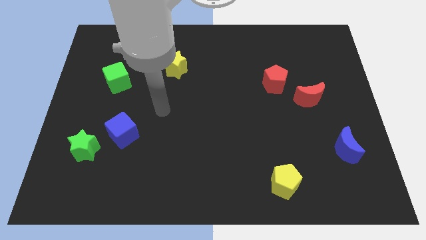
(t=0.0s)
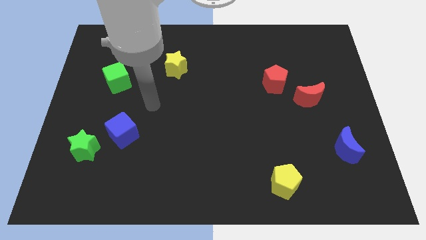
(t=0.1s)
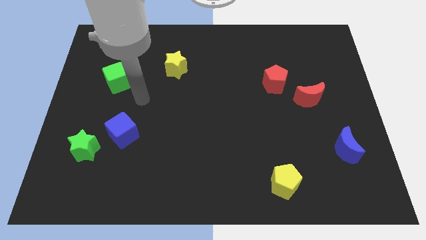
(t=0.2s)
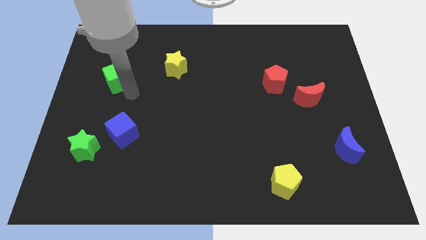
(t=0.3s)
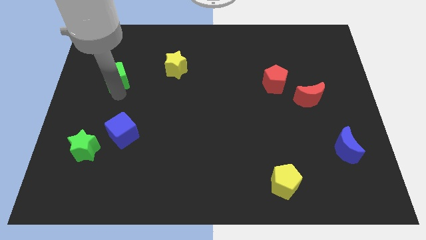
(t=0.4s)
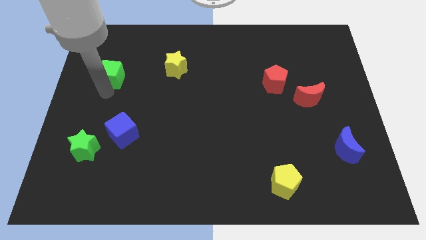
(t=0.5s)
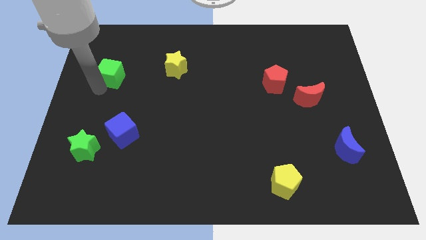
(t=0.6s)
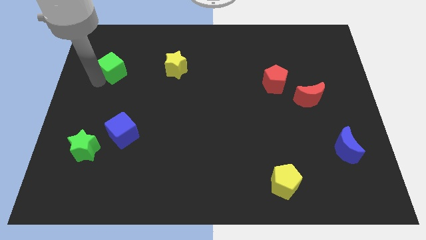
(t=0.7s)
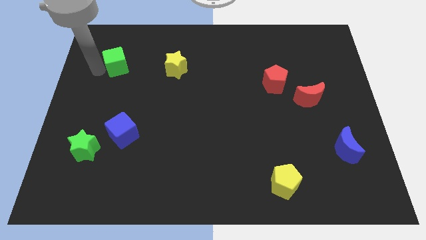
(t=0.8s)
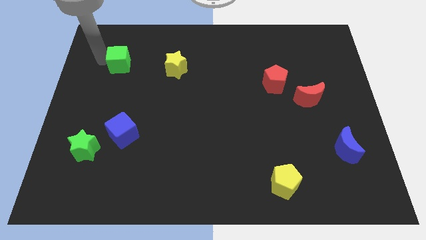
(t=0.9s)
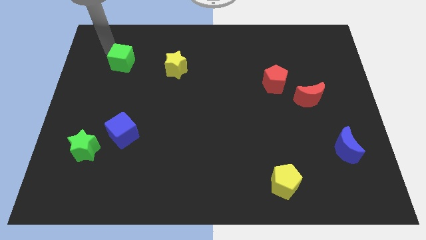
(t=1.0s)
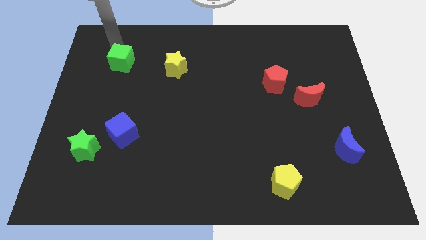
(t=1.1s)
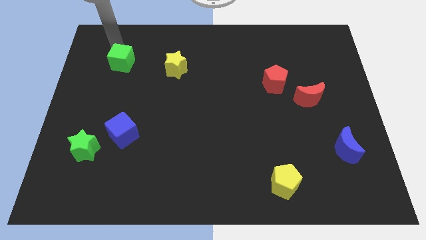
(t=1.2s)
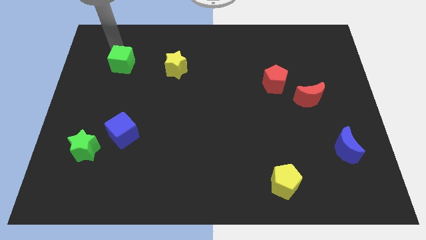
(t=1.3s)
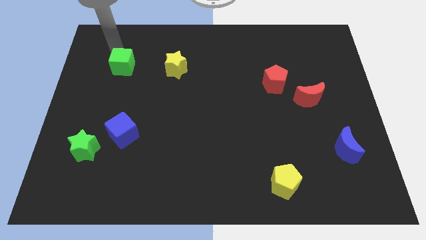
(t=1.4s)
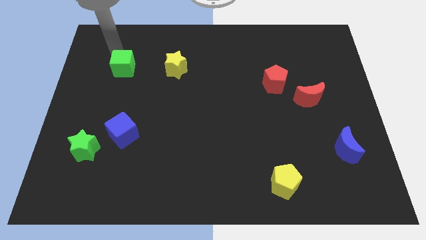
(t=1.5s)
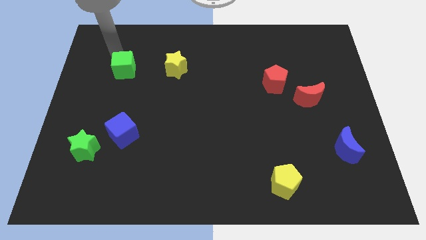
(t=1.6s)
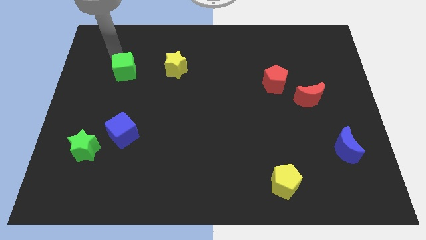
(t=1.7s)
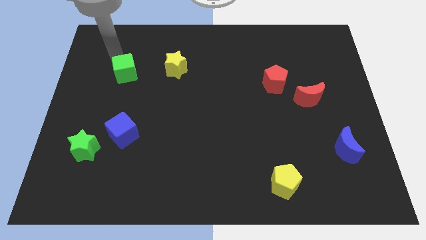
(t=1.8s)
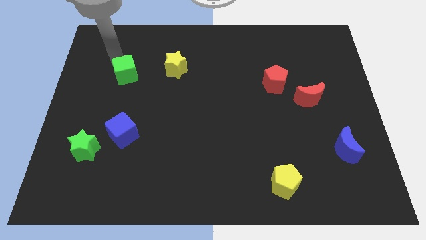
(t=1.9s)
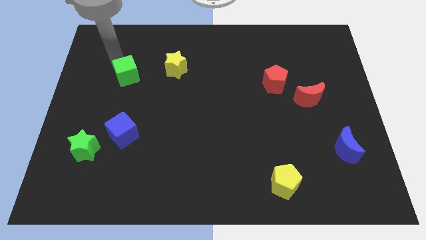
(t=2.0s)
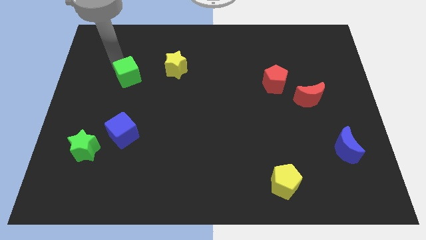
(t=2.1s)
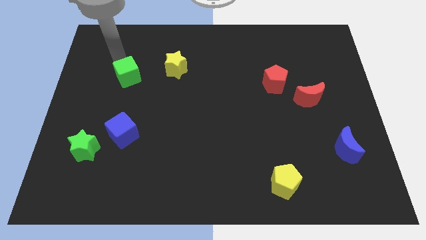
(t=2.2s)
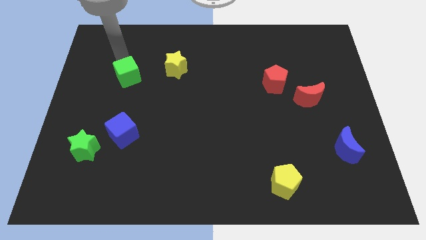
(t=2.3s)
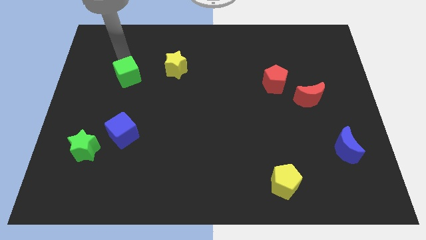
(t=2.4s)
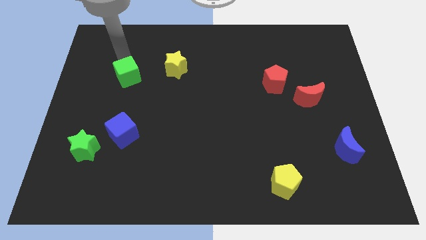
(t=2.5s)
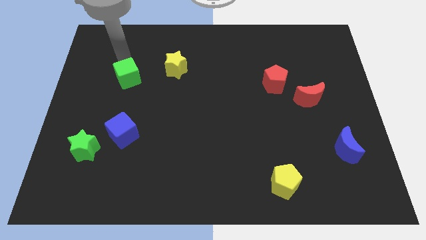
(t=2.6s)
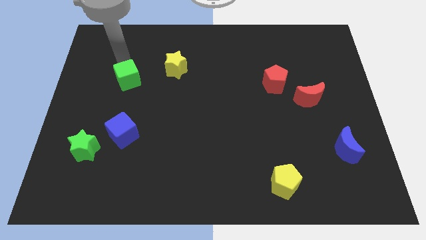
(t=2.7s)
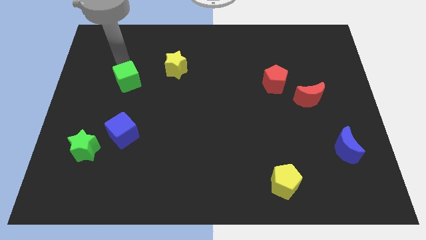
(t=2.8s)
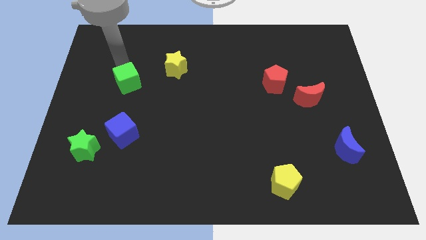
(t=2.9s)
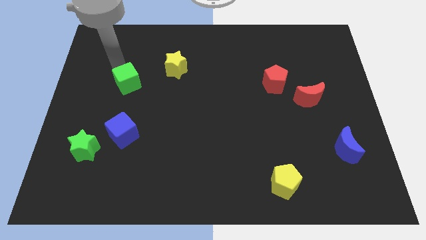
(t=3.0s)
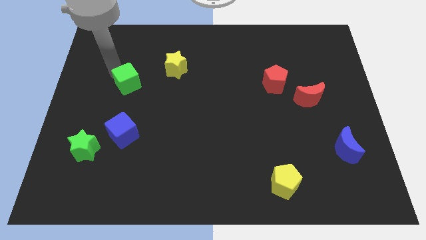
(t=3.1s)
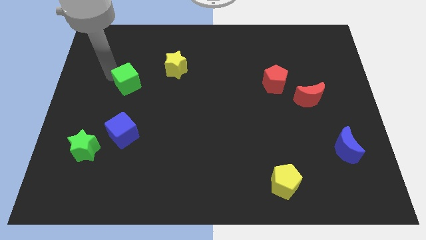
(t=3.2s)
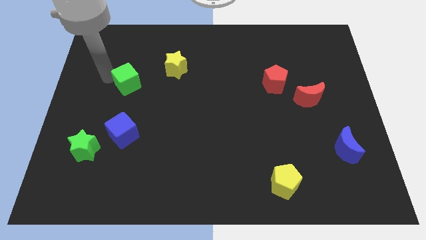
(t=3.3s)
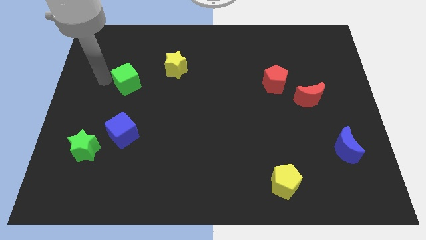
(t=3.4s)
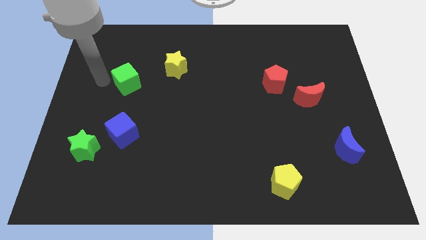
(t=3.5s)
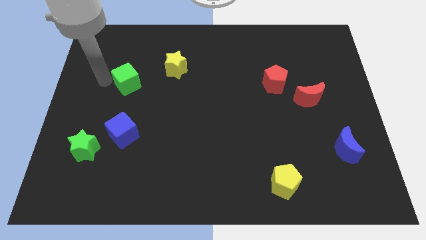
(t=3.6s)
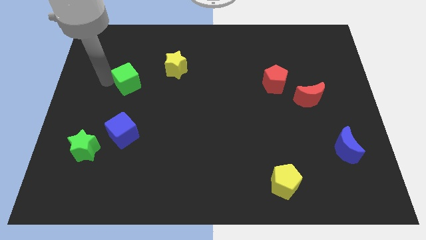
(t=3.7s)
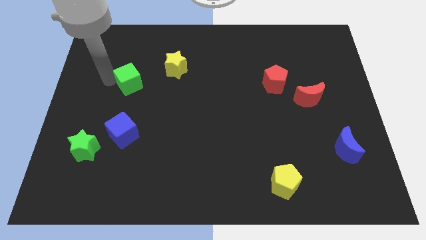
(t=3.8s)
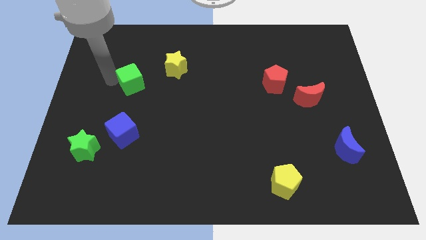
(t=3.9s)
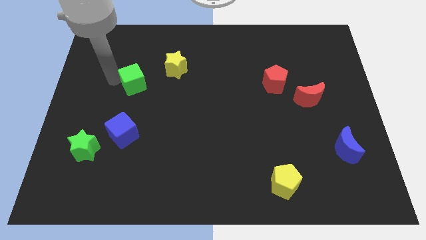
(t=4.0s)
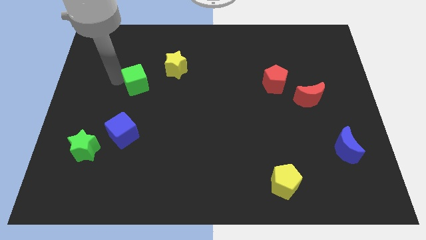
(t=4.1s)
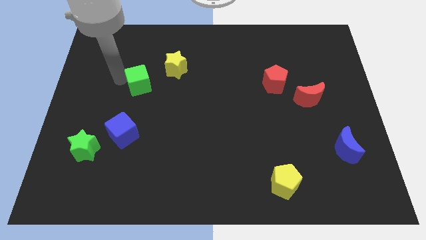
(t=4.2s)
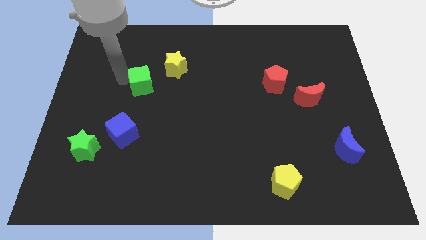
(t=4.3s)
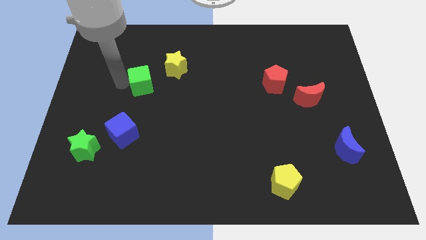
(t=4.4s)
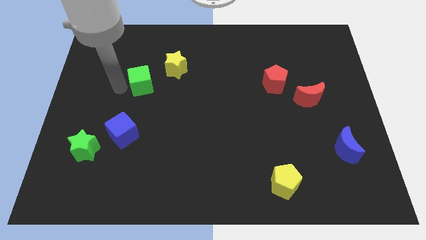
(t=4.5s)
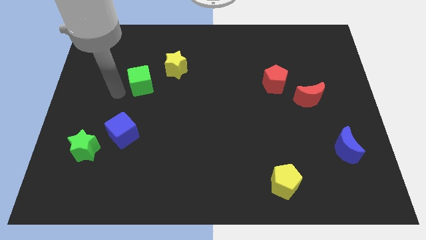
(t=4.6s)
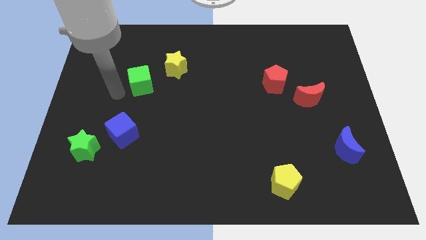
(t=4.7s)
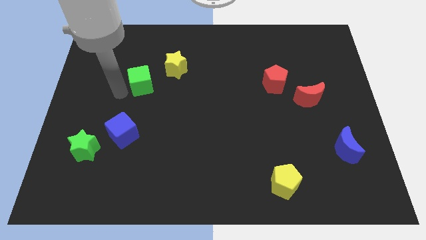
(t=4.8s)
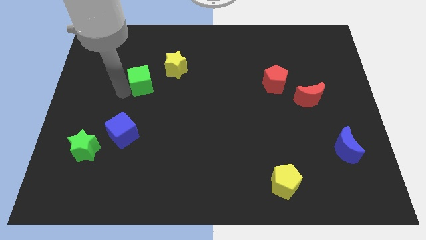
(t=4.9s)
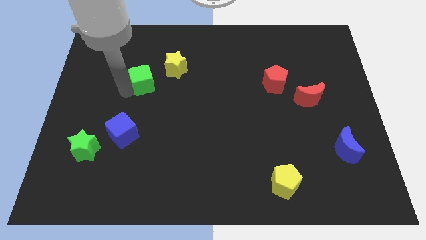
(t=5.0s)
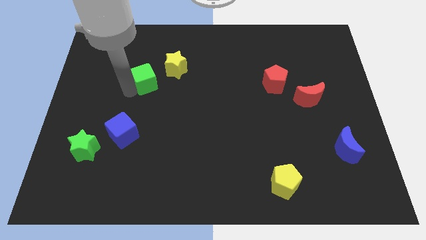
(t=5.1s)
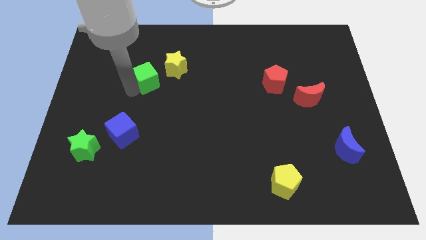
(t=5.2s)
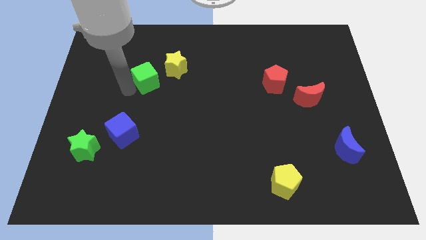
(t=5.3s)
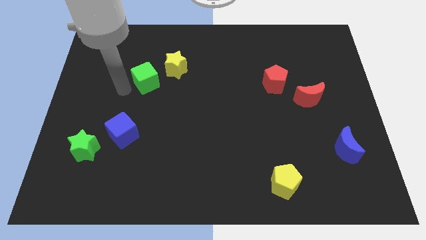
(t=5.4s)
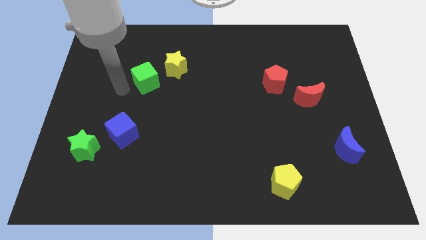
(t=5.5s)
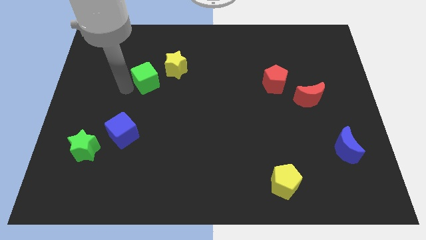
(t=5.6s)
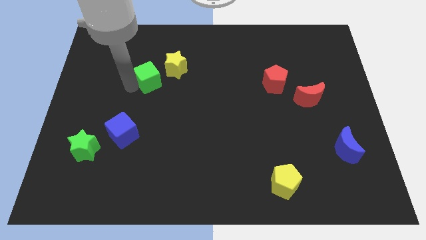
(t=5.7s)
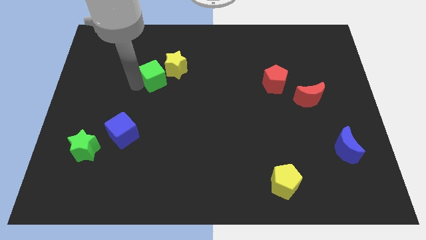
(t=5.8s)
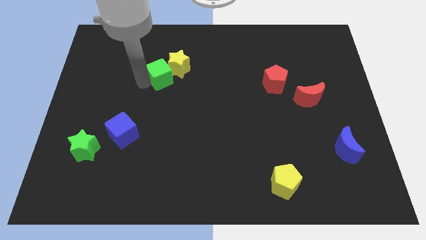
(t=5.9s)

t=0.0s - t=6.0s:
slide the green cube to the yellow star

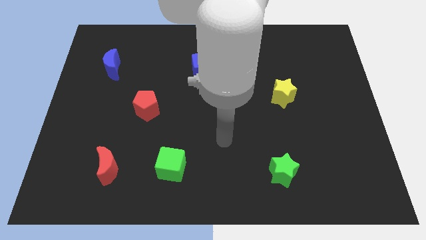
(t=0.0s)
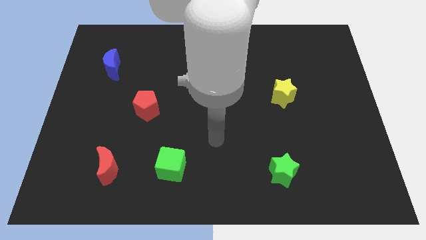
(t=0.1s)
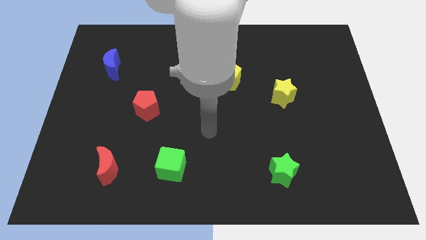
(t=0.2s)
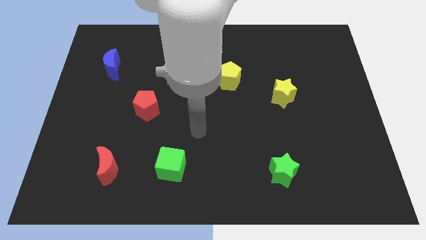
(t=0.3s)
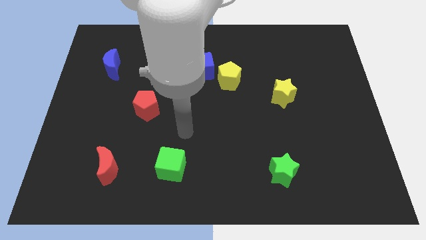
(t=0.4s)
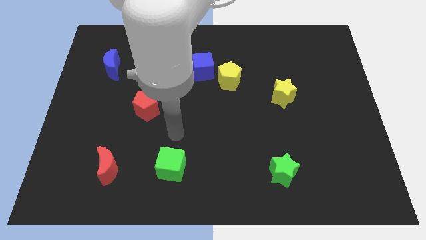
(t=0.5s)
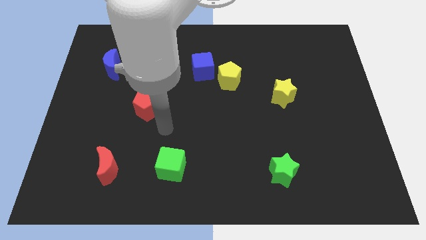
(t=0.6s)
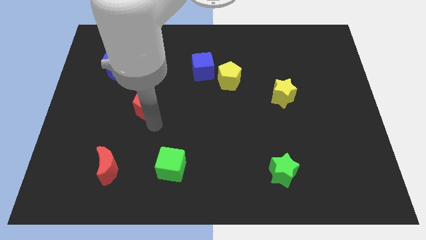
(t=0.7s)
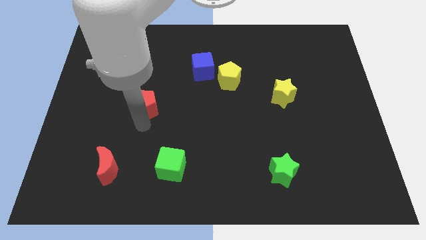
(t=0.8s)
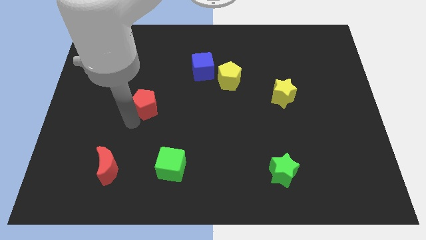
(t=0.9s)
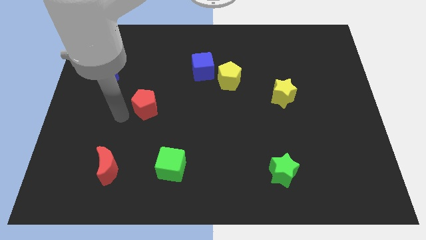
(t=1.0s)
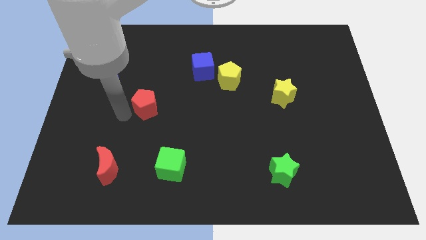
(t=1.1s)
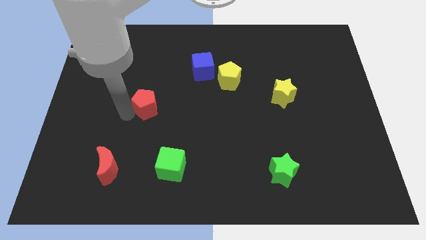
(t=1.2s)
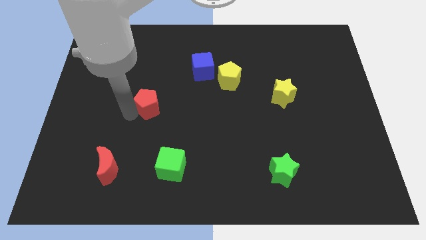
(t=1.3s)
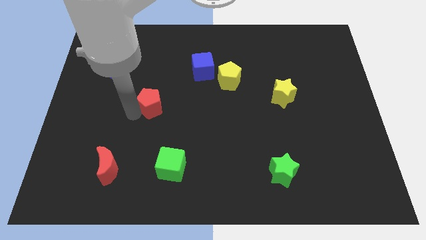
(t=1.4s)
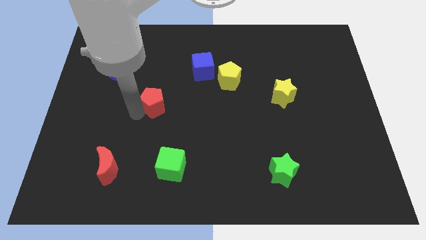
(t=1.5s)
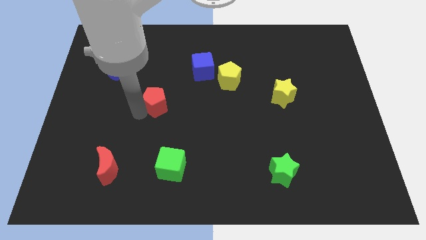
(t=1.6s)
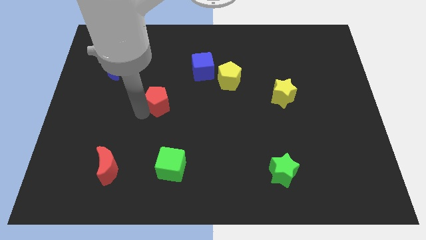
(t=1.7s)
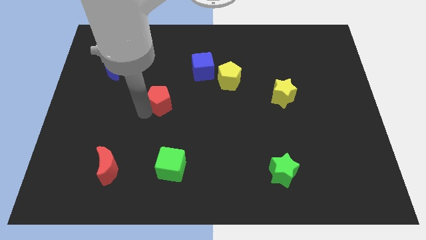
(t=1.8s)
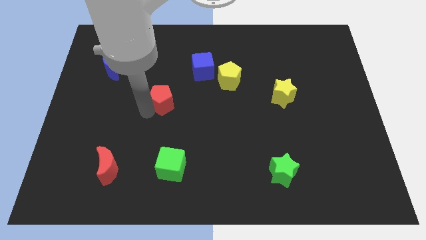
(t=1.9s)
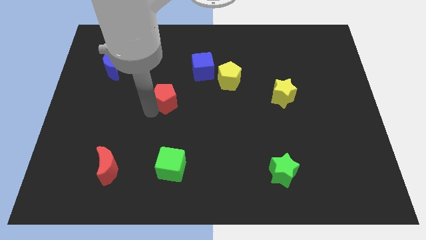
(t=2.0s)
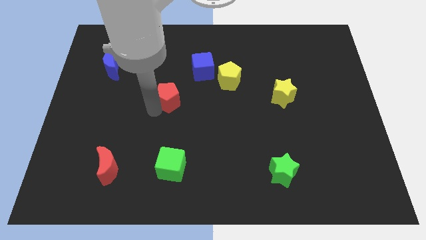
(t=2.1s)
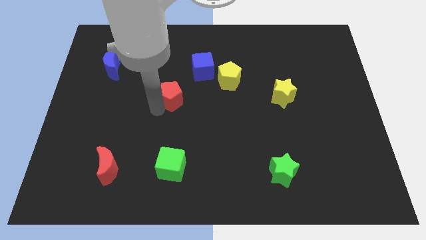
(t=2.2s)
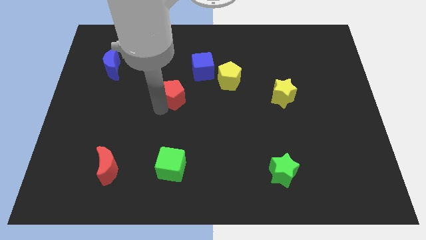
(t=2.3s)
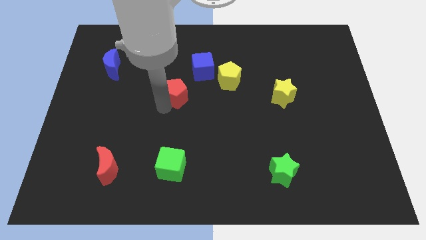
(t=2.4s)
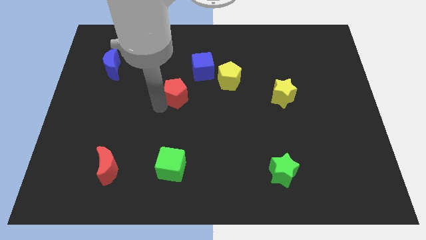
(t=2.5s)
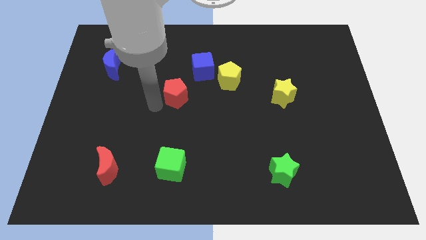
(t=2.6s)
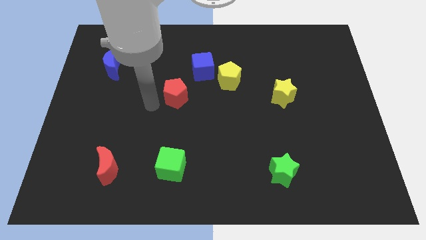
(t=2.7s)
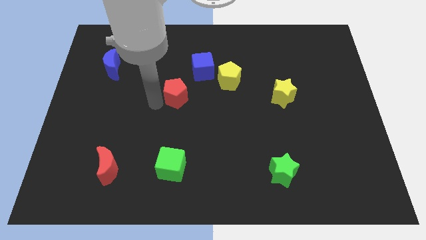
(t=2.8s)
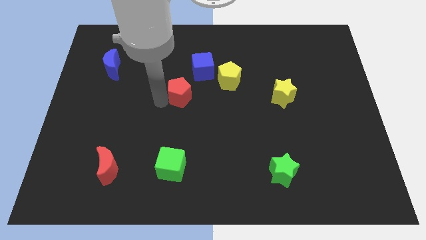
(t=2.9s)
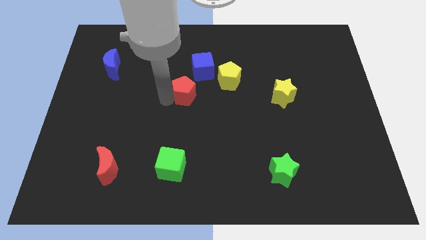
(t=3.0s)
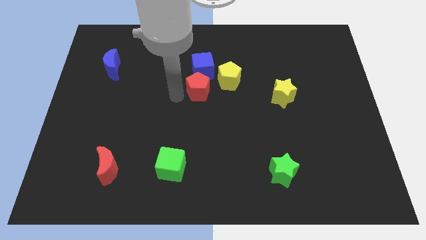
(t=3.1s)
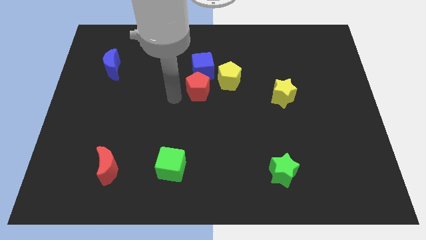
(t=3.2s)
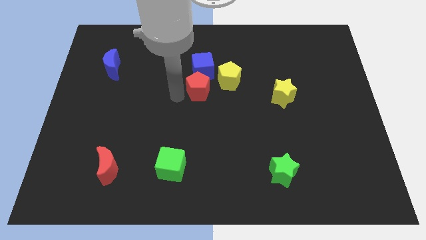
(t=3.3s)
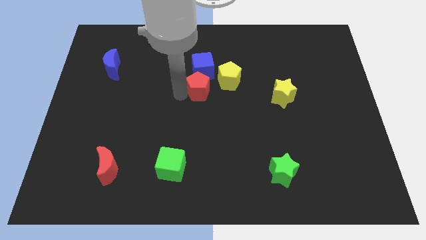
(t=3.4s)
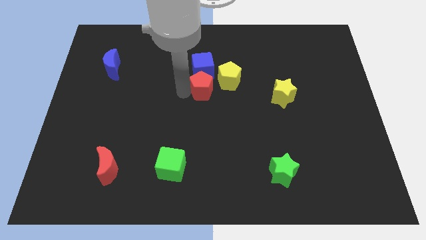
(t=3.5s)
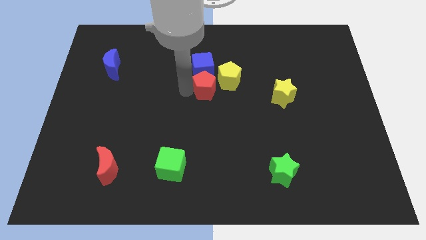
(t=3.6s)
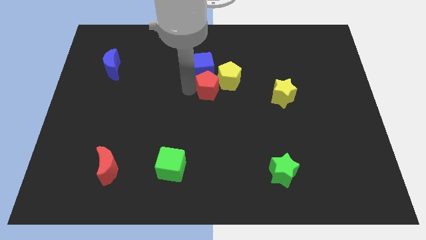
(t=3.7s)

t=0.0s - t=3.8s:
put the red pentagon close to the yellow pentagon
